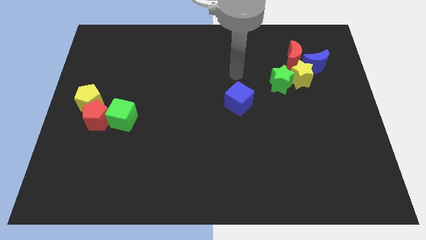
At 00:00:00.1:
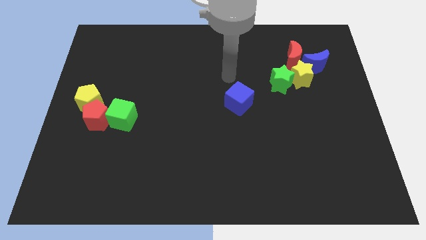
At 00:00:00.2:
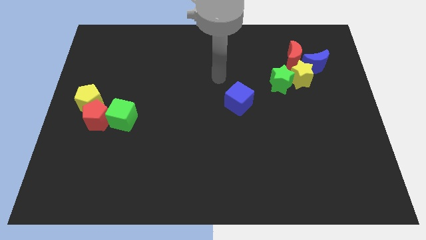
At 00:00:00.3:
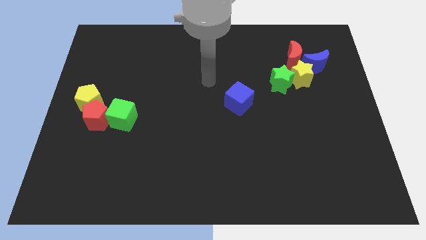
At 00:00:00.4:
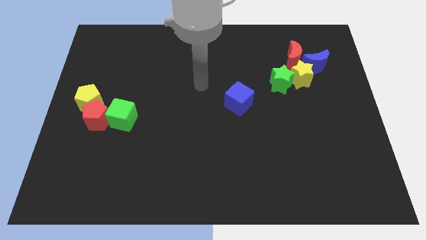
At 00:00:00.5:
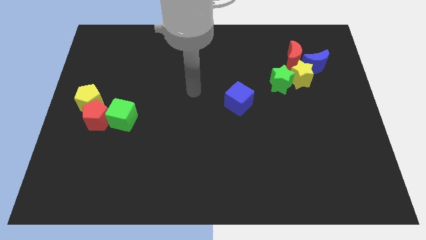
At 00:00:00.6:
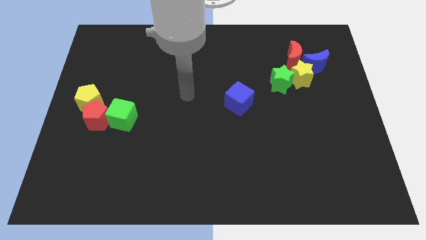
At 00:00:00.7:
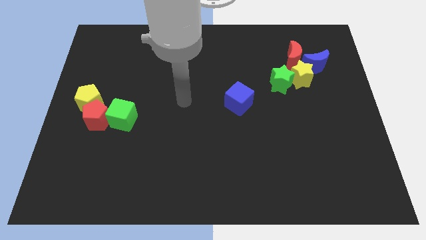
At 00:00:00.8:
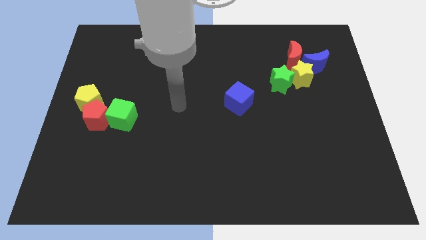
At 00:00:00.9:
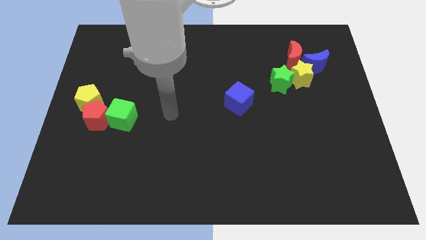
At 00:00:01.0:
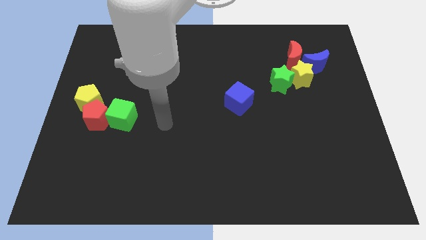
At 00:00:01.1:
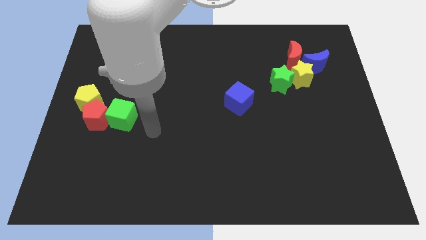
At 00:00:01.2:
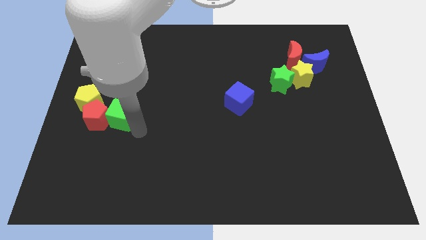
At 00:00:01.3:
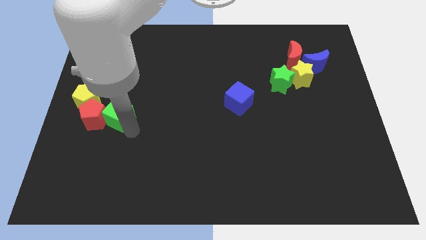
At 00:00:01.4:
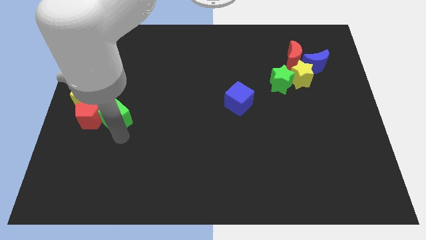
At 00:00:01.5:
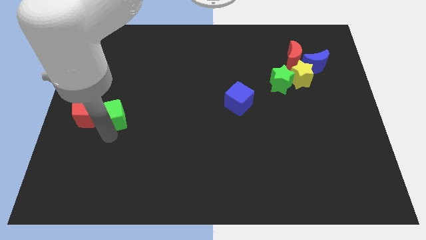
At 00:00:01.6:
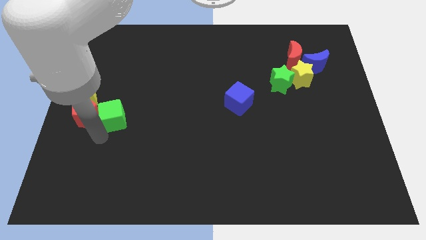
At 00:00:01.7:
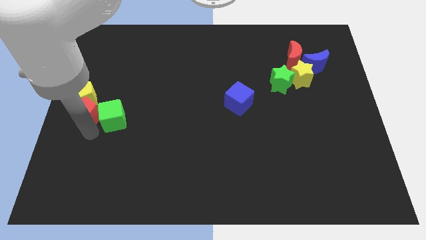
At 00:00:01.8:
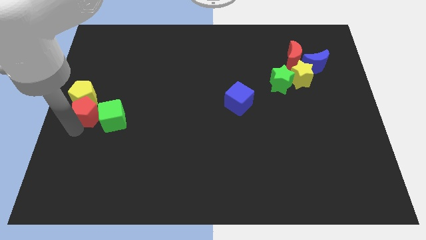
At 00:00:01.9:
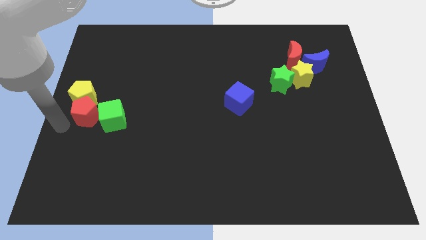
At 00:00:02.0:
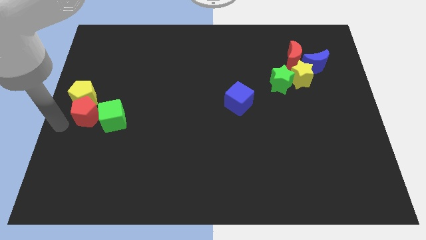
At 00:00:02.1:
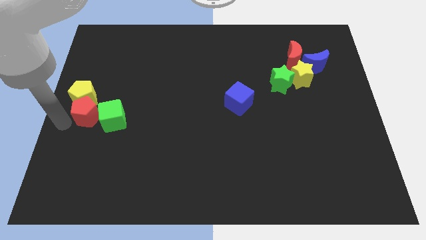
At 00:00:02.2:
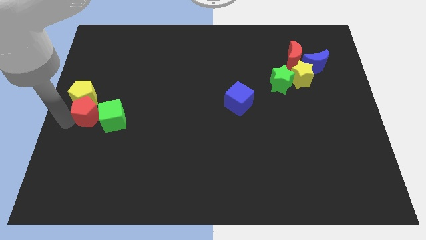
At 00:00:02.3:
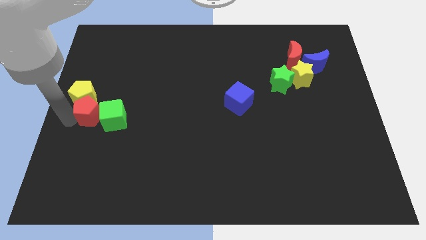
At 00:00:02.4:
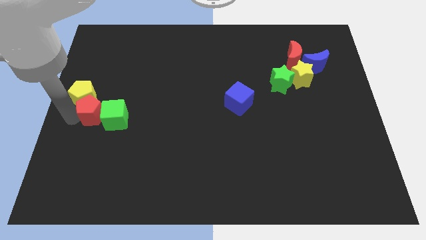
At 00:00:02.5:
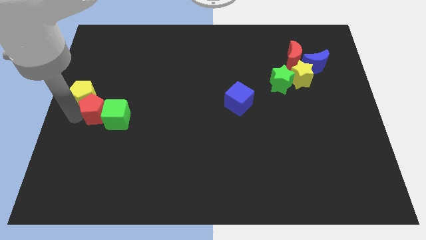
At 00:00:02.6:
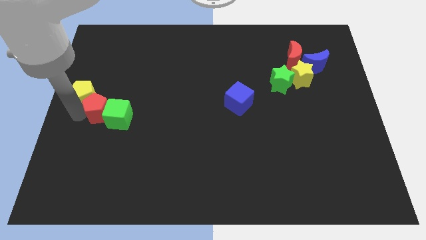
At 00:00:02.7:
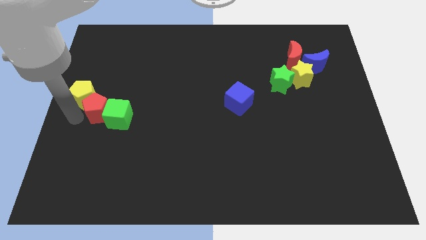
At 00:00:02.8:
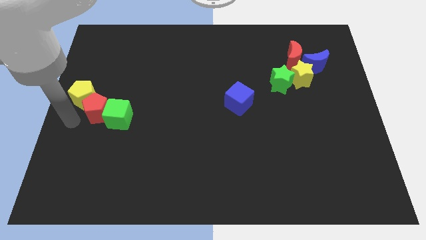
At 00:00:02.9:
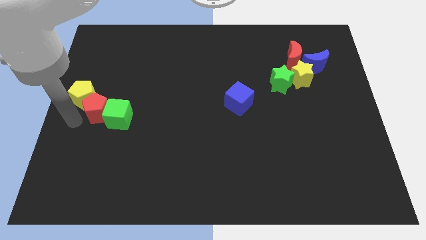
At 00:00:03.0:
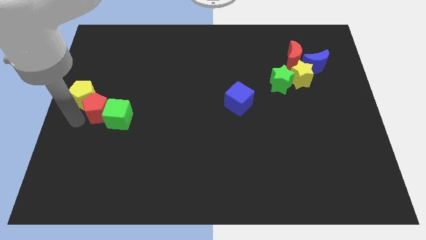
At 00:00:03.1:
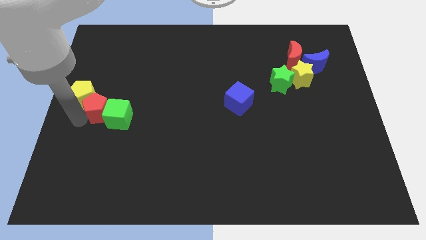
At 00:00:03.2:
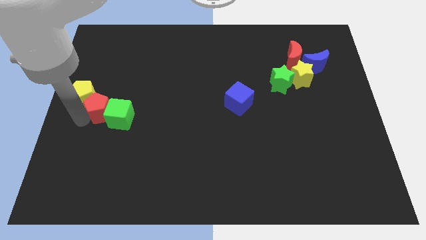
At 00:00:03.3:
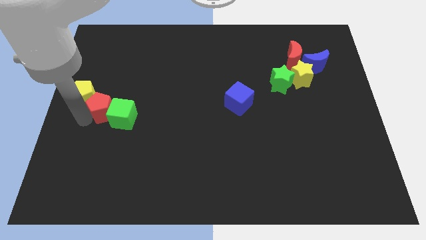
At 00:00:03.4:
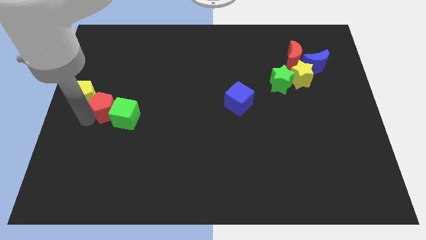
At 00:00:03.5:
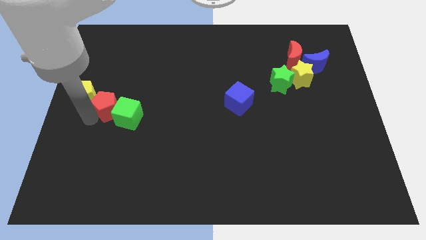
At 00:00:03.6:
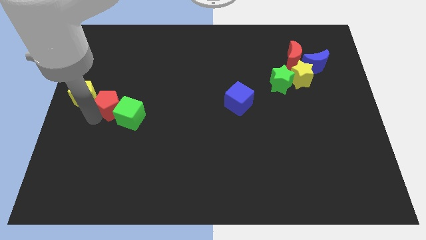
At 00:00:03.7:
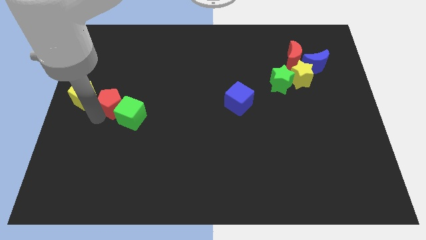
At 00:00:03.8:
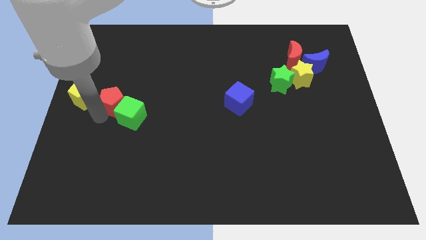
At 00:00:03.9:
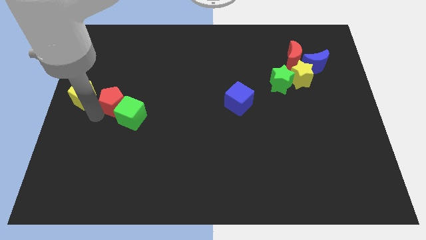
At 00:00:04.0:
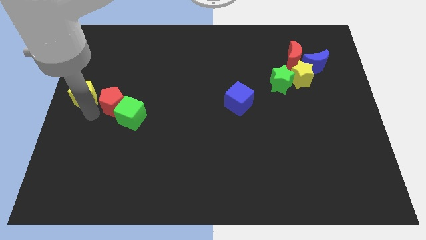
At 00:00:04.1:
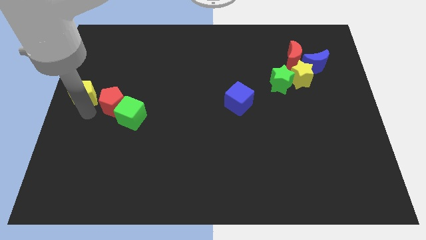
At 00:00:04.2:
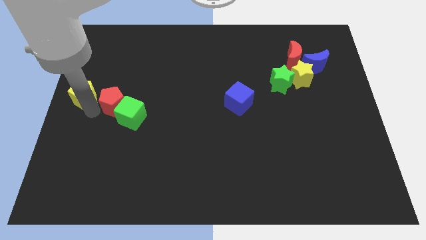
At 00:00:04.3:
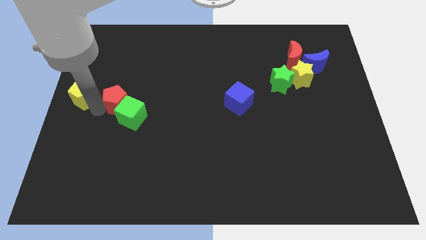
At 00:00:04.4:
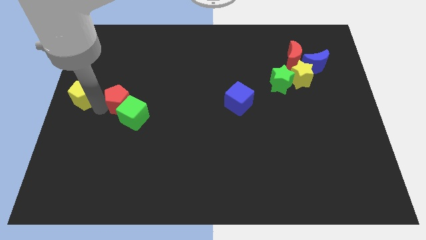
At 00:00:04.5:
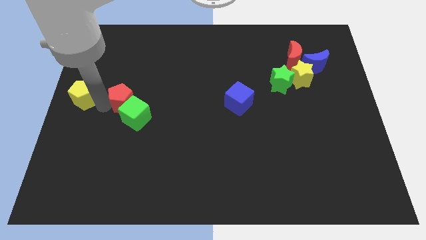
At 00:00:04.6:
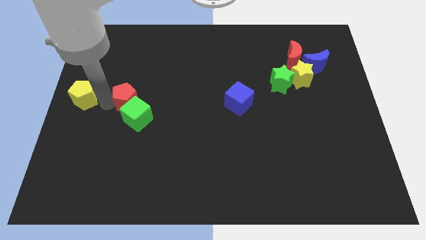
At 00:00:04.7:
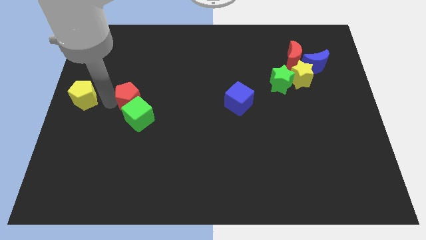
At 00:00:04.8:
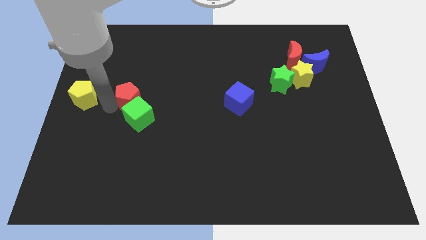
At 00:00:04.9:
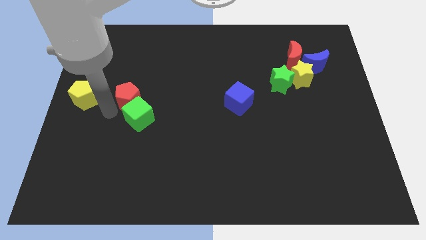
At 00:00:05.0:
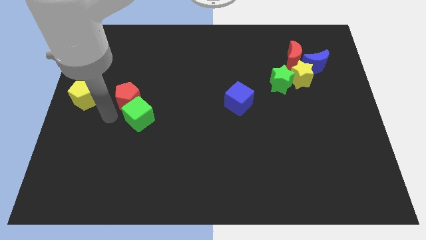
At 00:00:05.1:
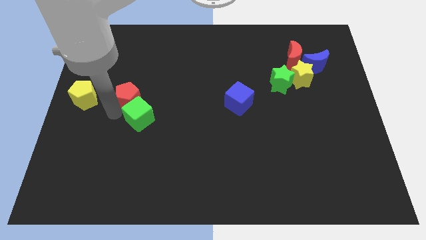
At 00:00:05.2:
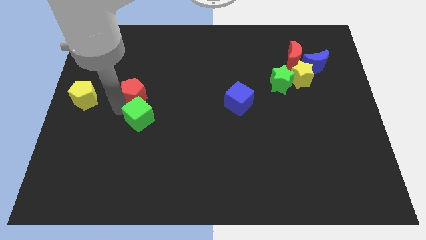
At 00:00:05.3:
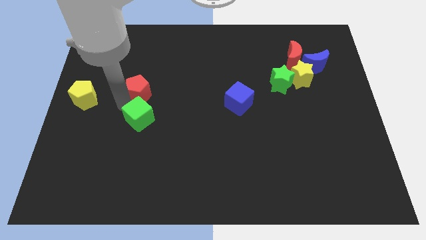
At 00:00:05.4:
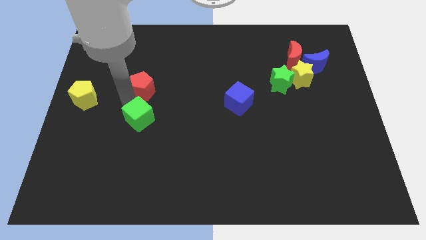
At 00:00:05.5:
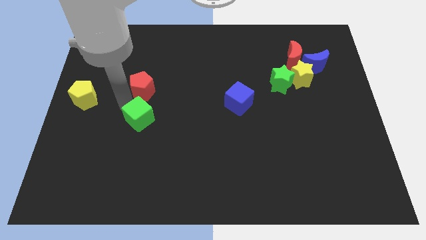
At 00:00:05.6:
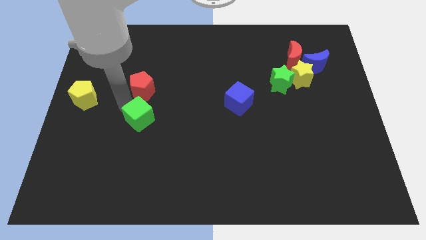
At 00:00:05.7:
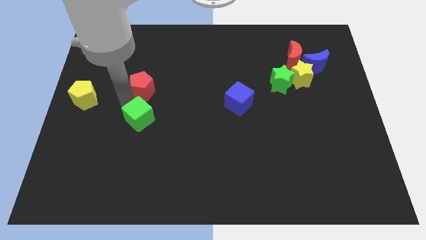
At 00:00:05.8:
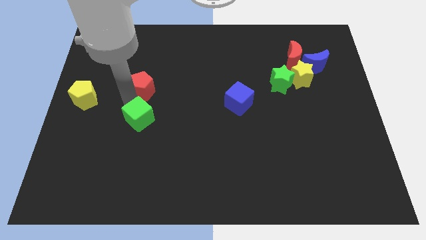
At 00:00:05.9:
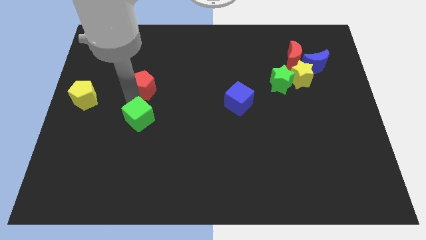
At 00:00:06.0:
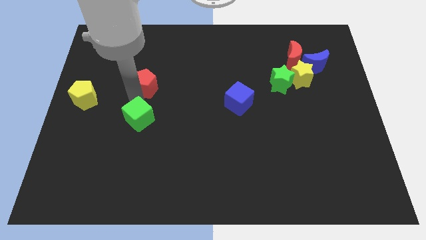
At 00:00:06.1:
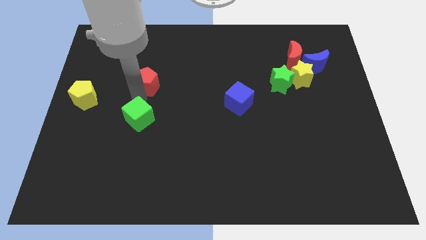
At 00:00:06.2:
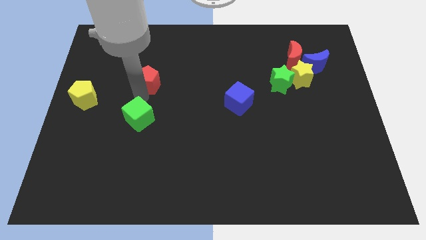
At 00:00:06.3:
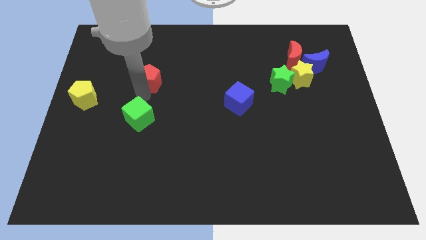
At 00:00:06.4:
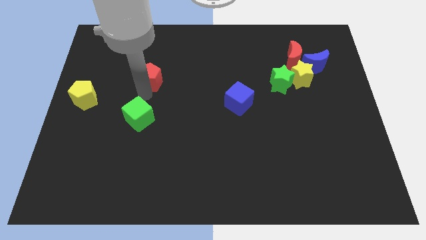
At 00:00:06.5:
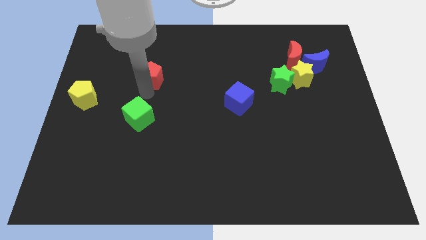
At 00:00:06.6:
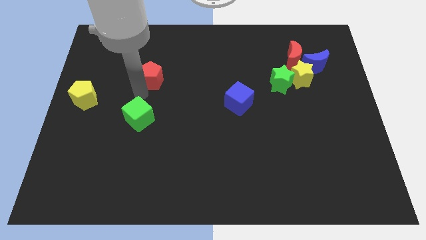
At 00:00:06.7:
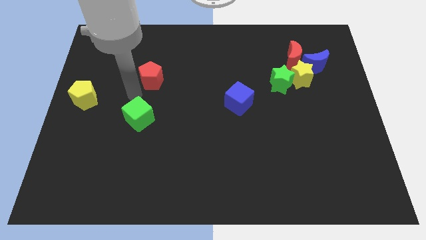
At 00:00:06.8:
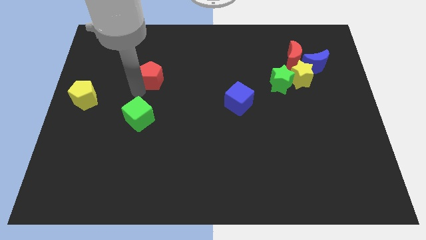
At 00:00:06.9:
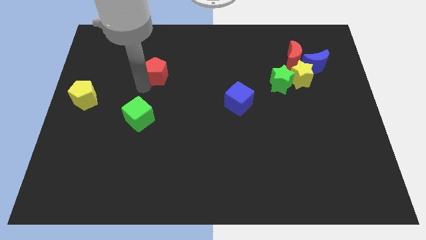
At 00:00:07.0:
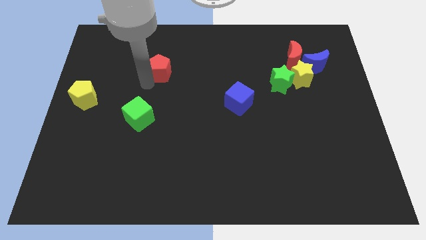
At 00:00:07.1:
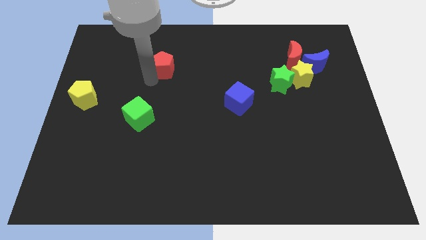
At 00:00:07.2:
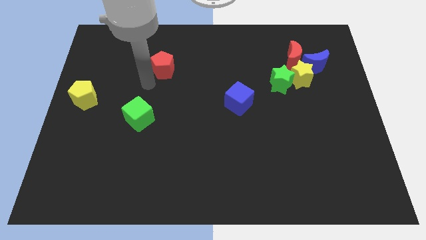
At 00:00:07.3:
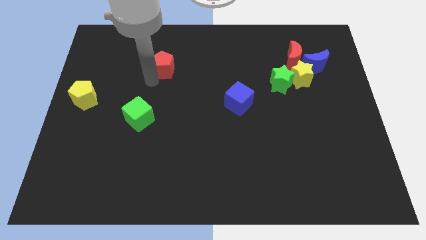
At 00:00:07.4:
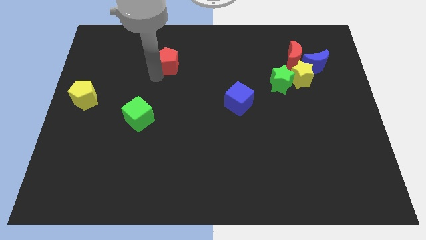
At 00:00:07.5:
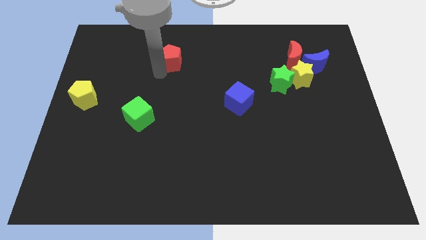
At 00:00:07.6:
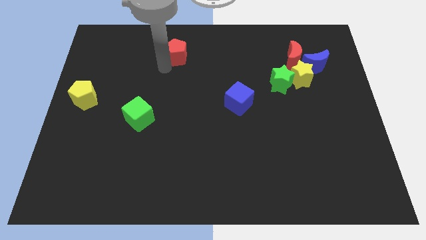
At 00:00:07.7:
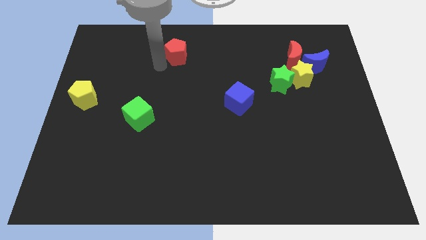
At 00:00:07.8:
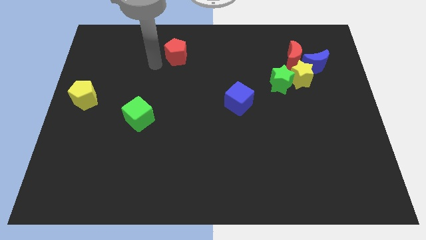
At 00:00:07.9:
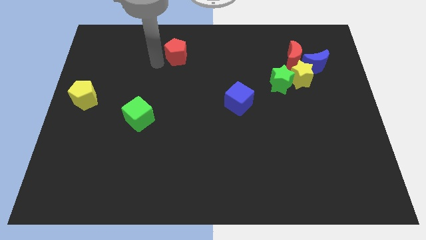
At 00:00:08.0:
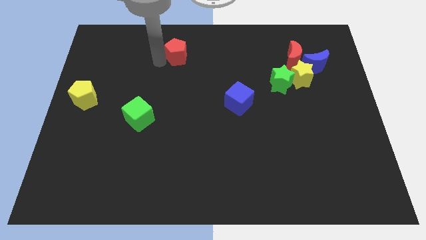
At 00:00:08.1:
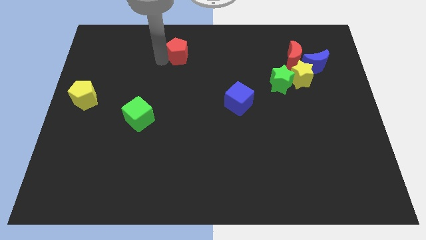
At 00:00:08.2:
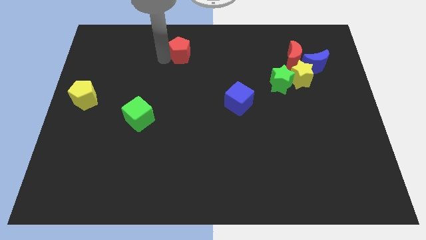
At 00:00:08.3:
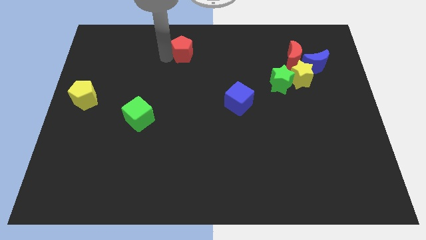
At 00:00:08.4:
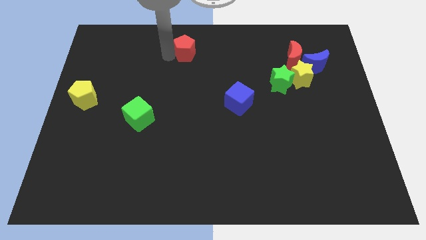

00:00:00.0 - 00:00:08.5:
push the red pentagon to the top
